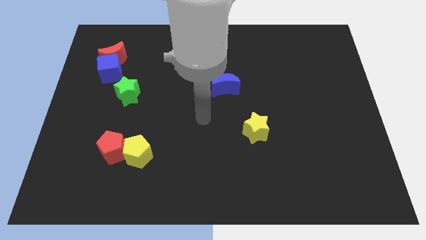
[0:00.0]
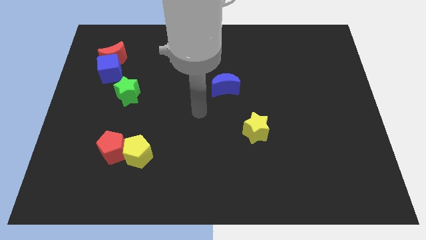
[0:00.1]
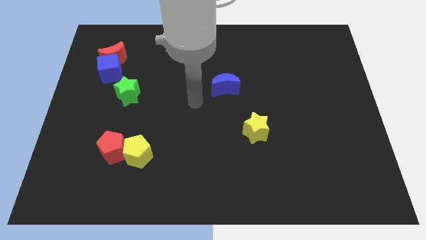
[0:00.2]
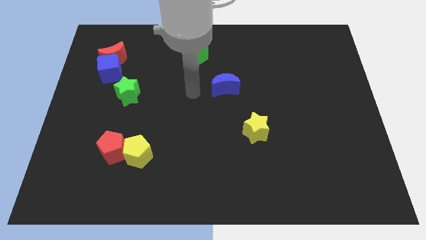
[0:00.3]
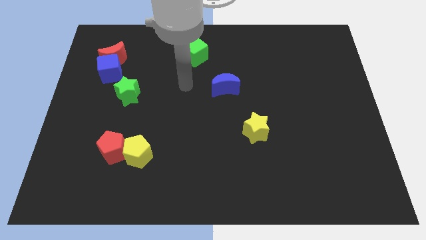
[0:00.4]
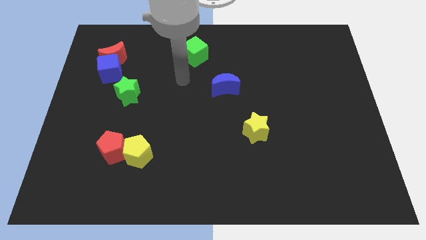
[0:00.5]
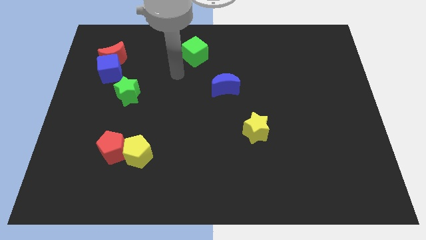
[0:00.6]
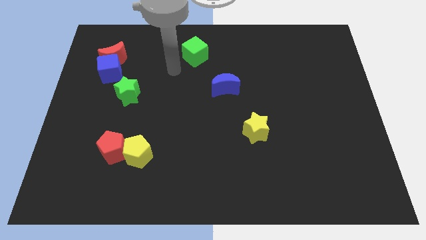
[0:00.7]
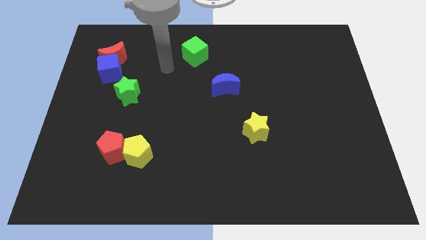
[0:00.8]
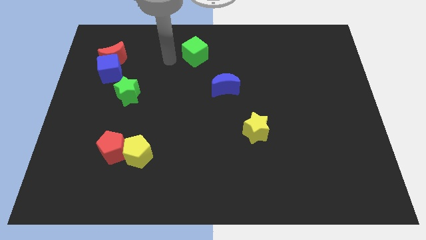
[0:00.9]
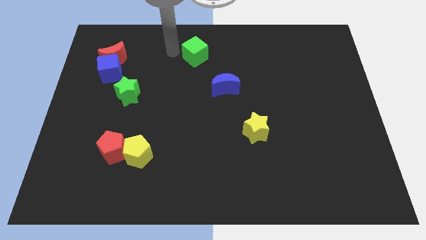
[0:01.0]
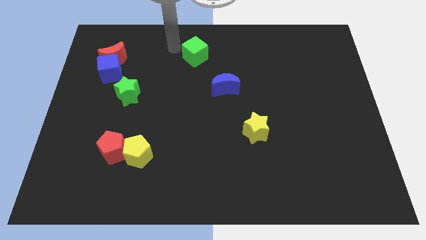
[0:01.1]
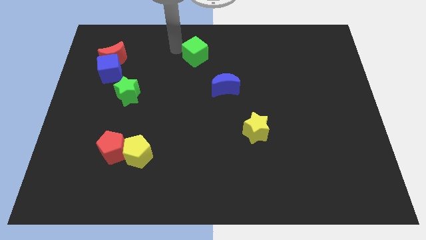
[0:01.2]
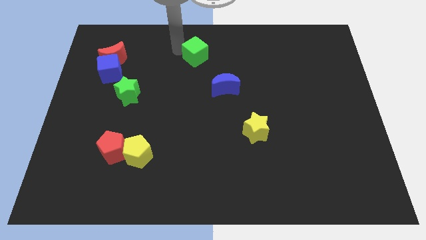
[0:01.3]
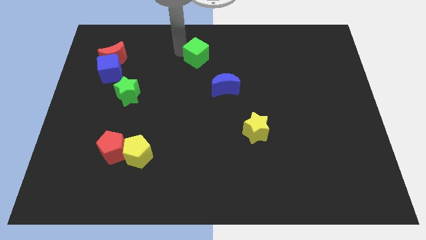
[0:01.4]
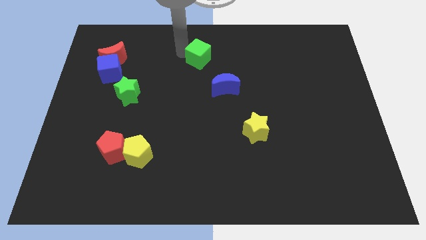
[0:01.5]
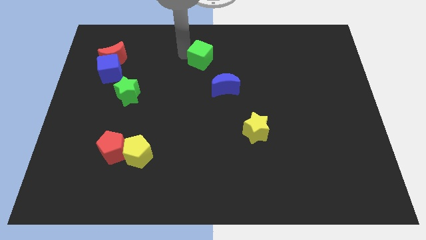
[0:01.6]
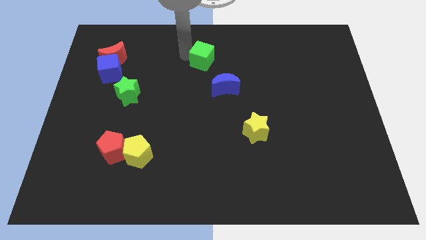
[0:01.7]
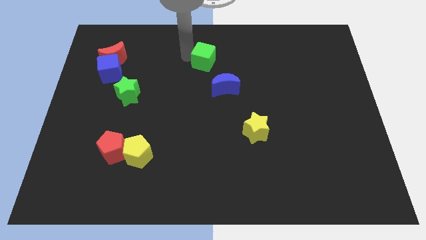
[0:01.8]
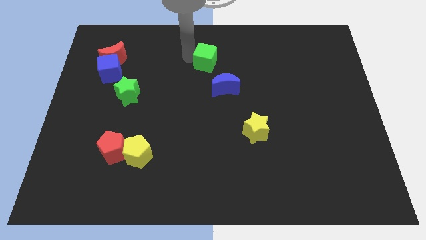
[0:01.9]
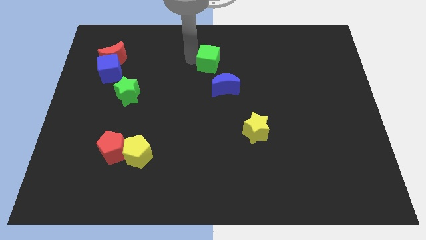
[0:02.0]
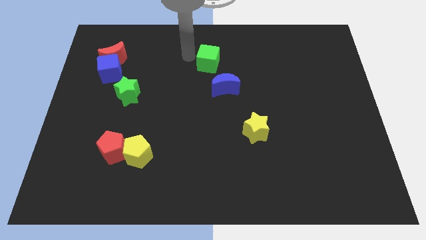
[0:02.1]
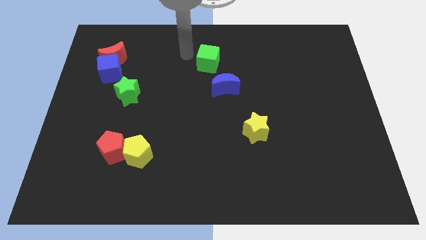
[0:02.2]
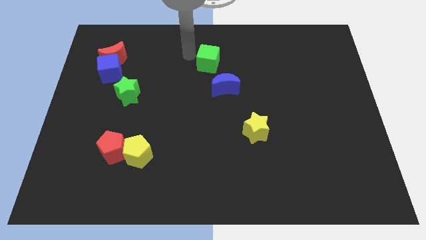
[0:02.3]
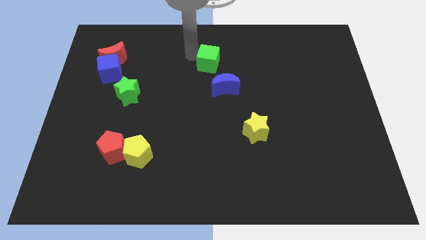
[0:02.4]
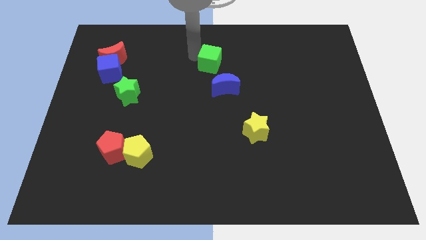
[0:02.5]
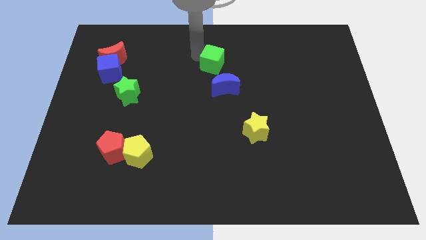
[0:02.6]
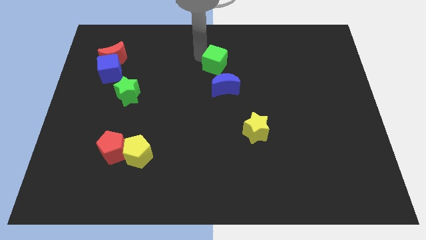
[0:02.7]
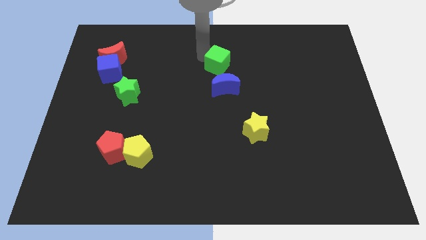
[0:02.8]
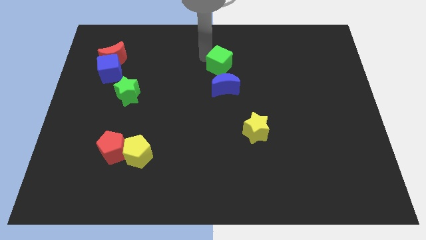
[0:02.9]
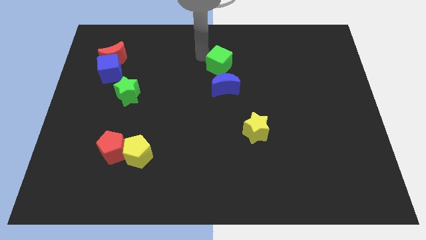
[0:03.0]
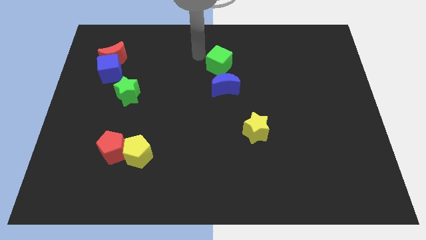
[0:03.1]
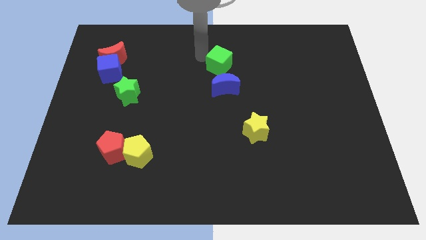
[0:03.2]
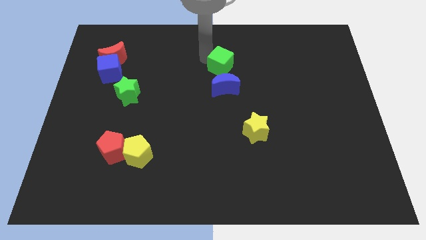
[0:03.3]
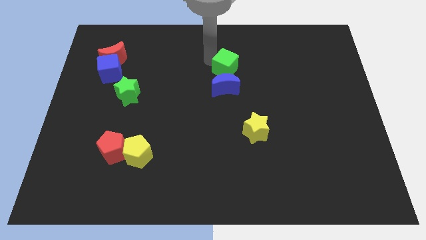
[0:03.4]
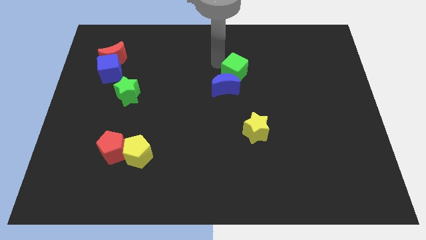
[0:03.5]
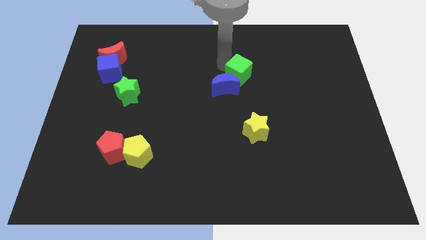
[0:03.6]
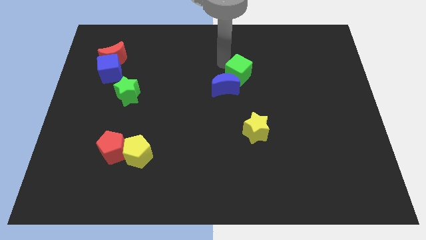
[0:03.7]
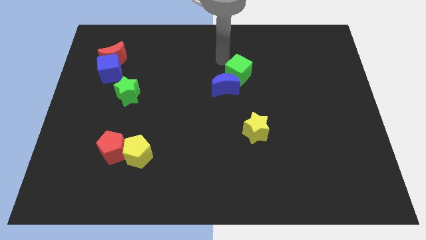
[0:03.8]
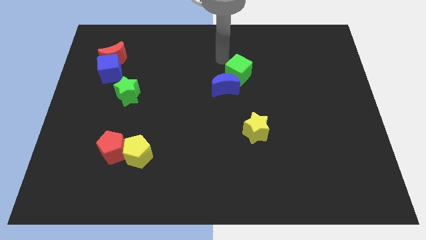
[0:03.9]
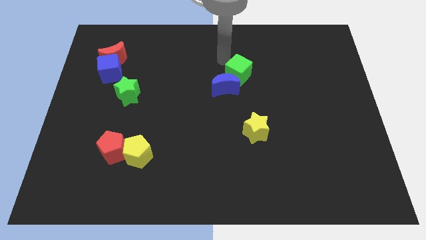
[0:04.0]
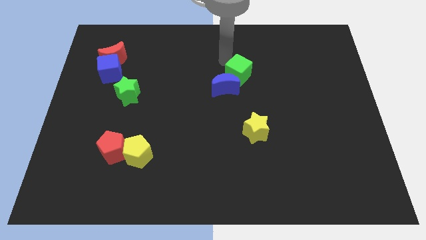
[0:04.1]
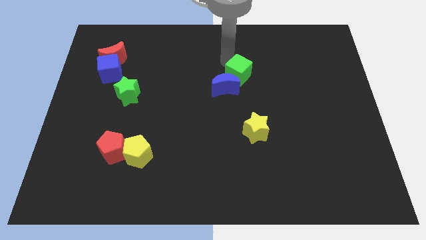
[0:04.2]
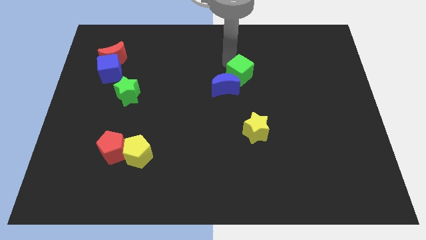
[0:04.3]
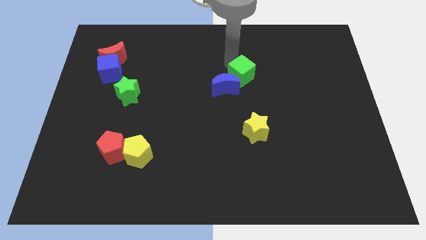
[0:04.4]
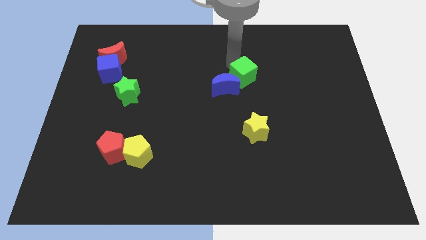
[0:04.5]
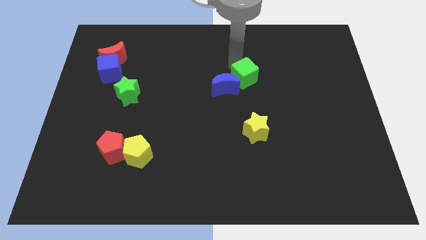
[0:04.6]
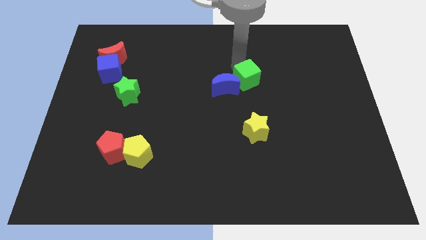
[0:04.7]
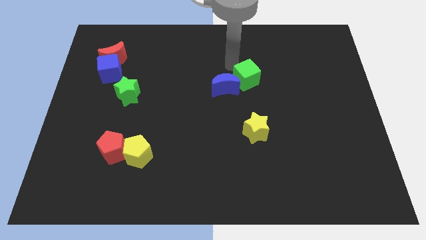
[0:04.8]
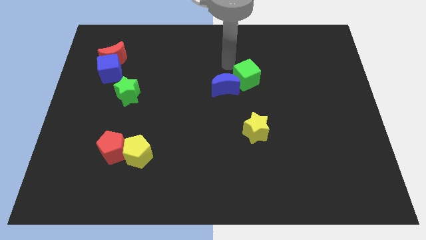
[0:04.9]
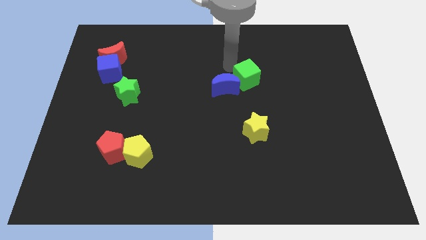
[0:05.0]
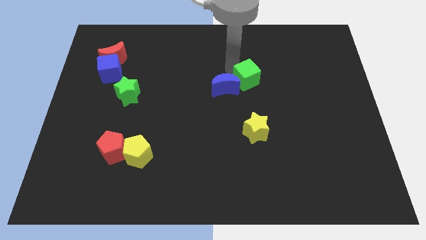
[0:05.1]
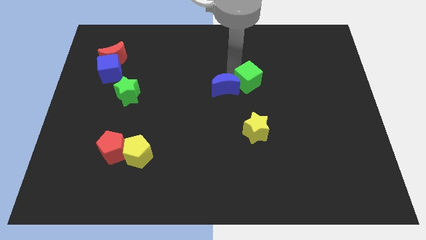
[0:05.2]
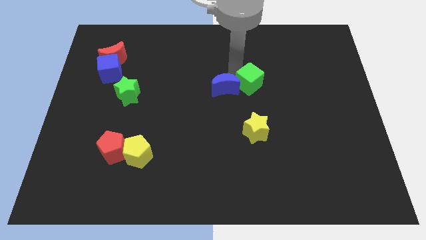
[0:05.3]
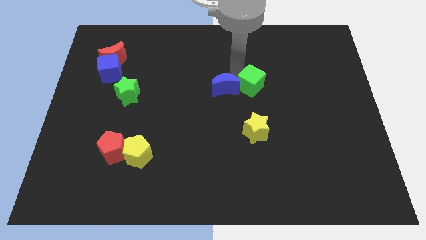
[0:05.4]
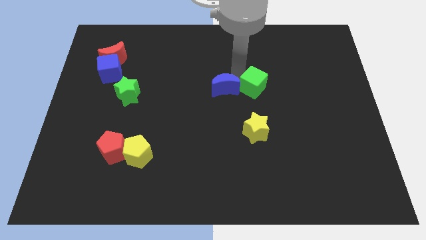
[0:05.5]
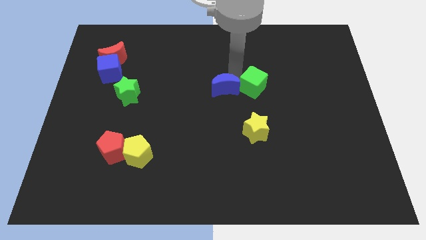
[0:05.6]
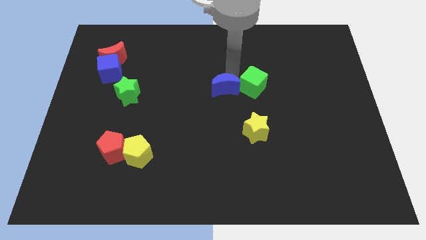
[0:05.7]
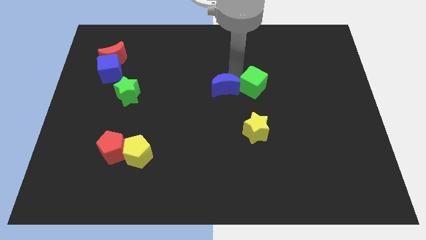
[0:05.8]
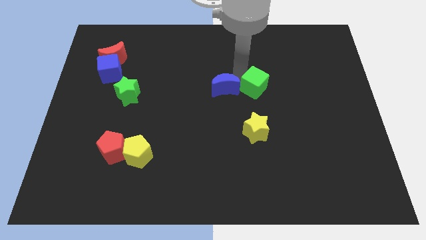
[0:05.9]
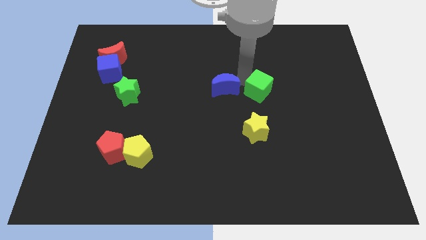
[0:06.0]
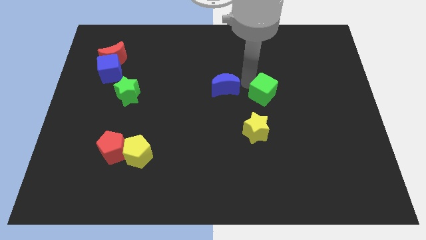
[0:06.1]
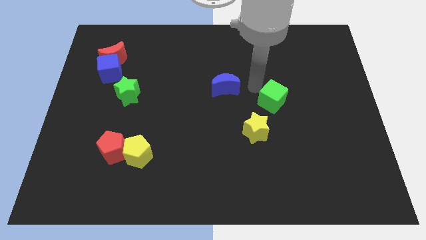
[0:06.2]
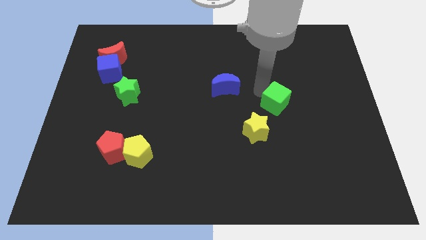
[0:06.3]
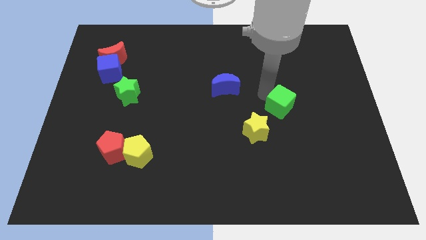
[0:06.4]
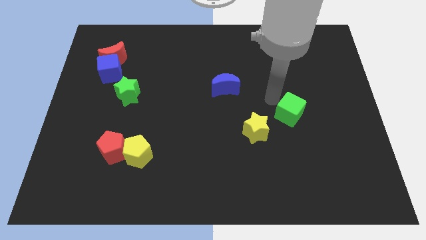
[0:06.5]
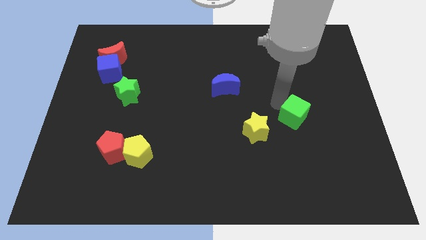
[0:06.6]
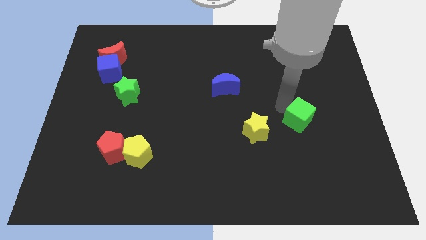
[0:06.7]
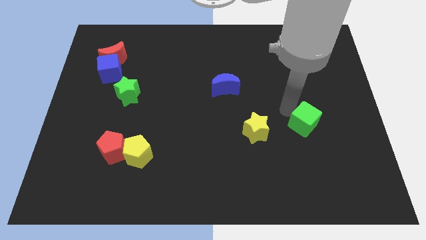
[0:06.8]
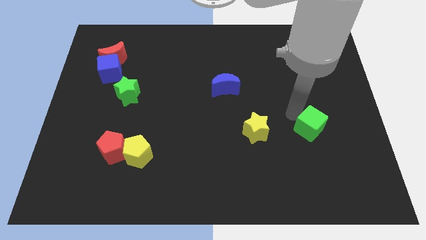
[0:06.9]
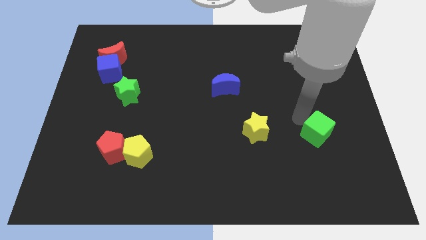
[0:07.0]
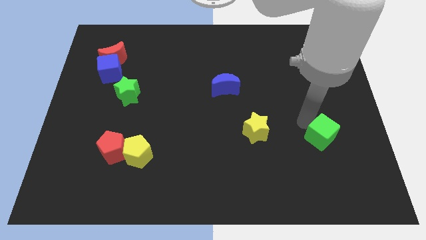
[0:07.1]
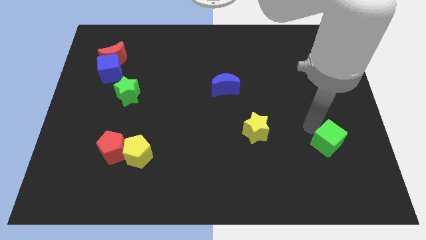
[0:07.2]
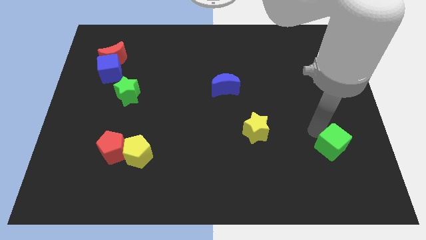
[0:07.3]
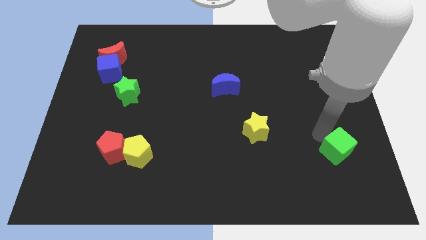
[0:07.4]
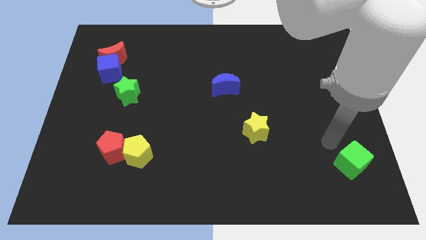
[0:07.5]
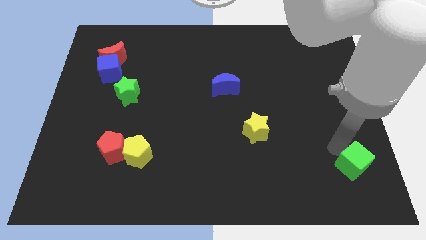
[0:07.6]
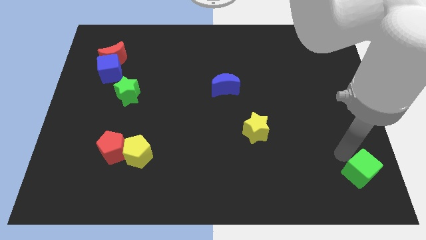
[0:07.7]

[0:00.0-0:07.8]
put the green cube to the bottom right corner
